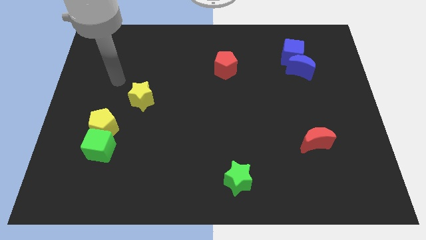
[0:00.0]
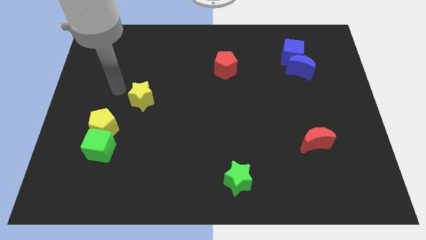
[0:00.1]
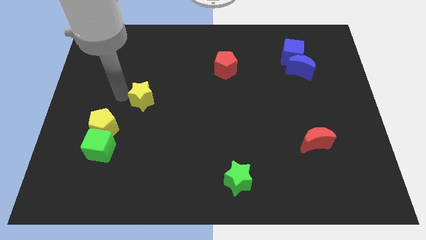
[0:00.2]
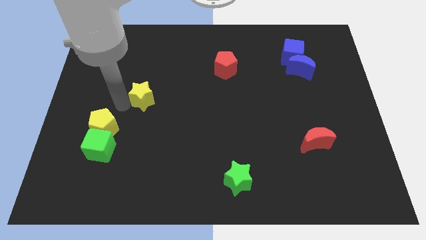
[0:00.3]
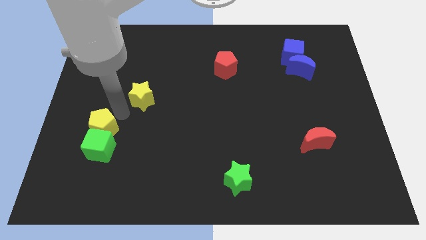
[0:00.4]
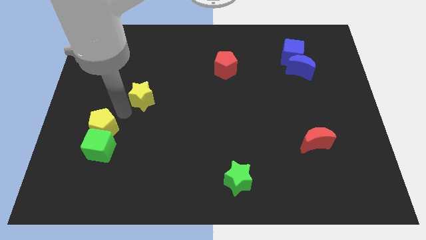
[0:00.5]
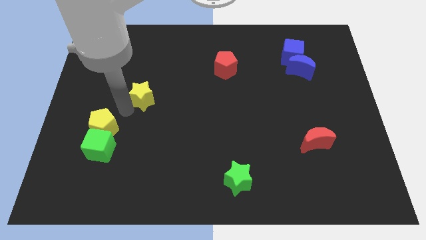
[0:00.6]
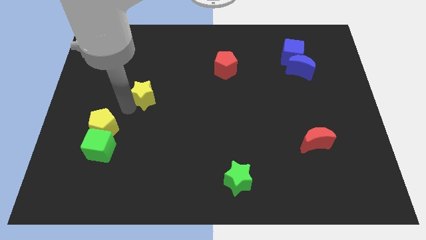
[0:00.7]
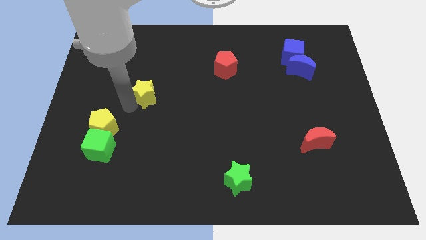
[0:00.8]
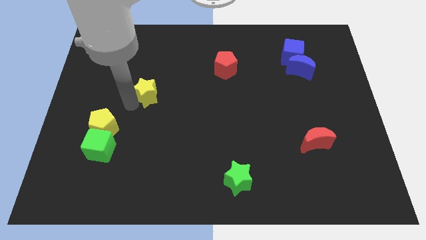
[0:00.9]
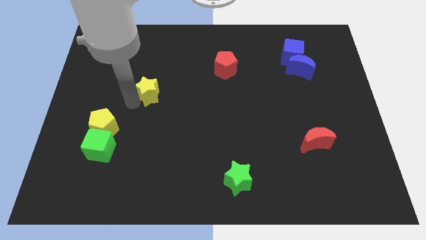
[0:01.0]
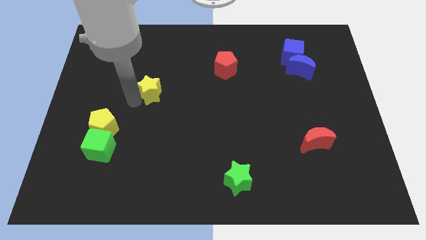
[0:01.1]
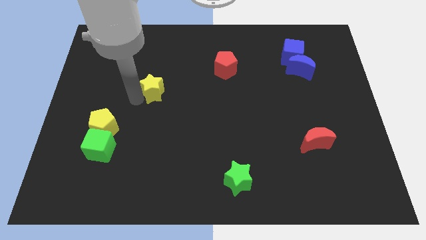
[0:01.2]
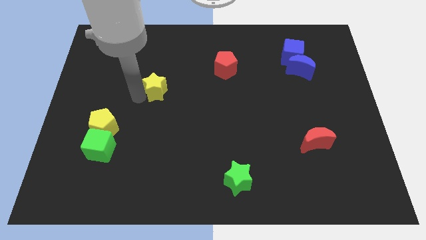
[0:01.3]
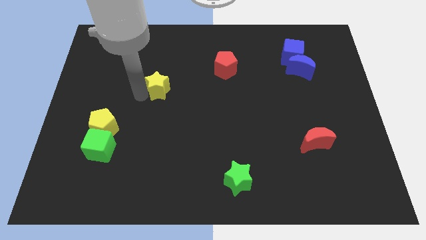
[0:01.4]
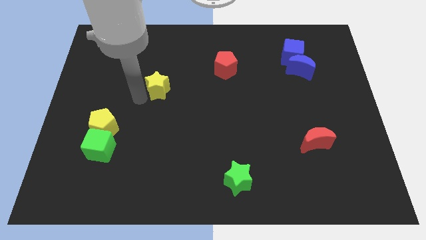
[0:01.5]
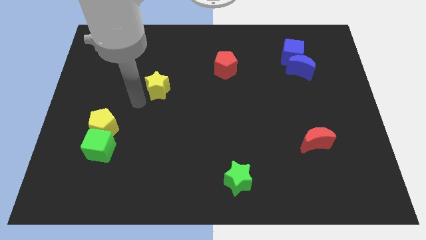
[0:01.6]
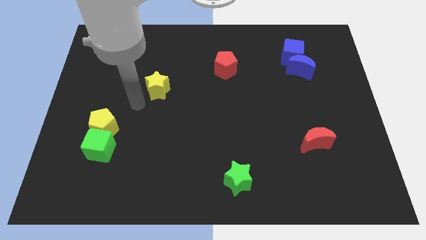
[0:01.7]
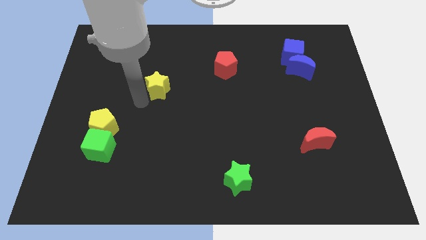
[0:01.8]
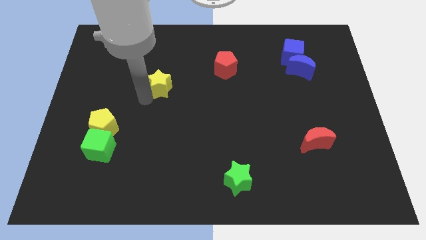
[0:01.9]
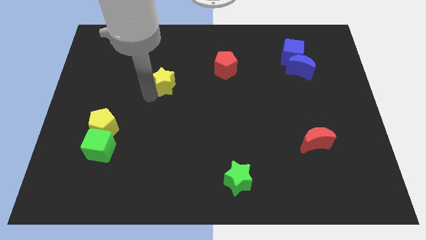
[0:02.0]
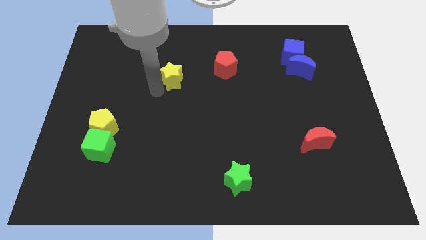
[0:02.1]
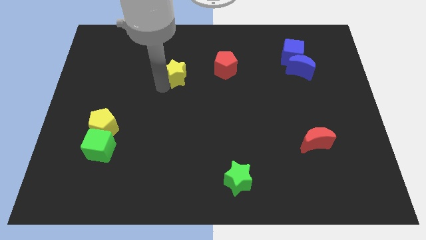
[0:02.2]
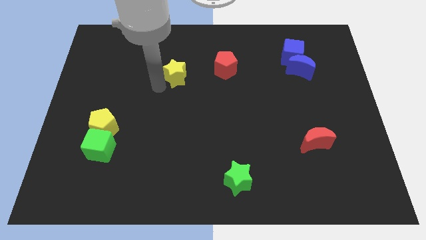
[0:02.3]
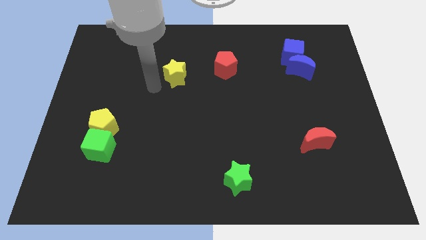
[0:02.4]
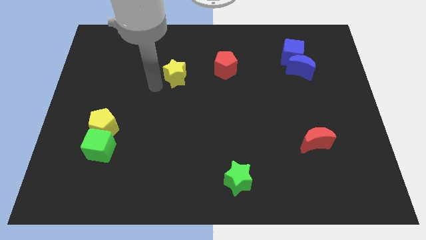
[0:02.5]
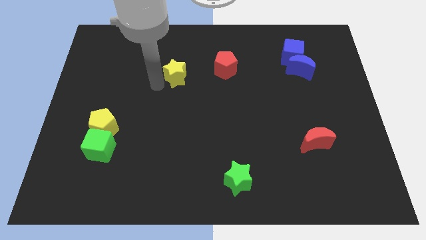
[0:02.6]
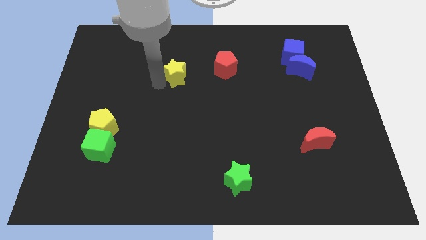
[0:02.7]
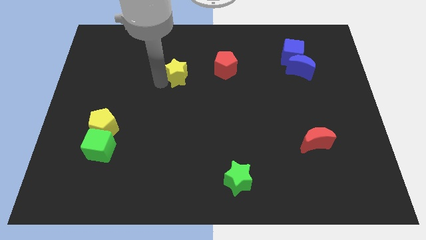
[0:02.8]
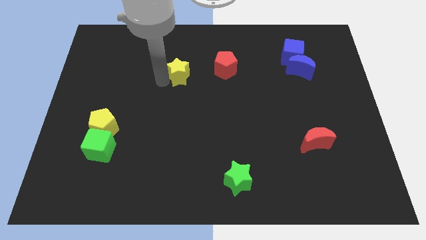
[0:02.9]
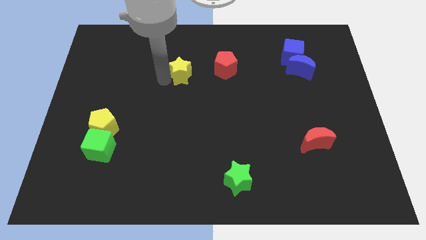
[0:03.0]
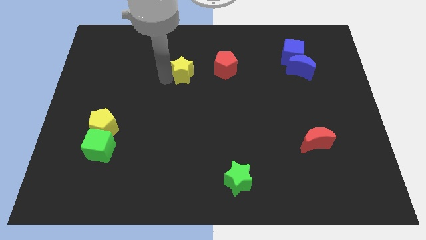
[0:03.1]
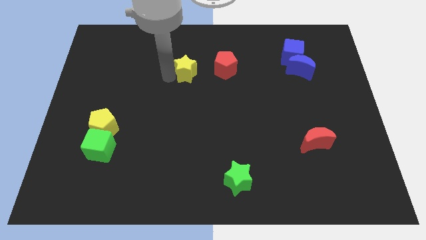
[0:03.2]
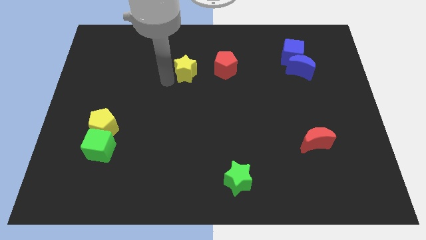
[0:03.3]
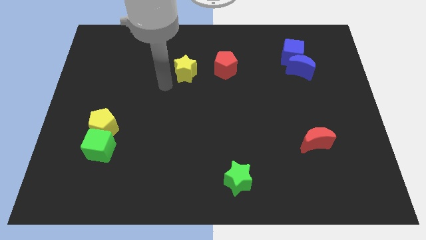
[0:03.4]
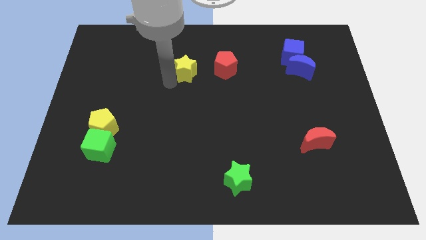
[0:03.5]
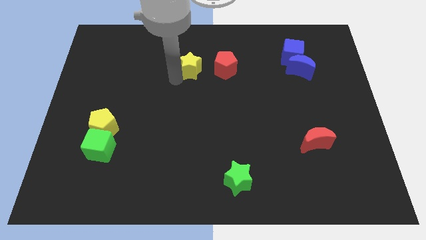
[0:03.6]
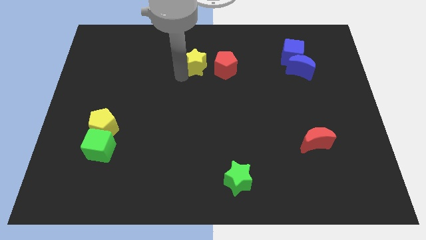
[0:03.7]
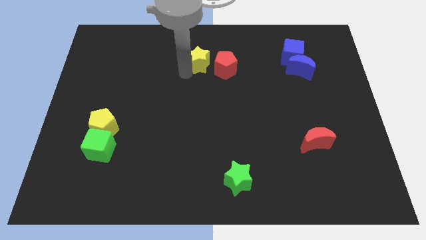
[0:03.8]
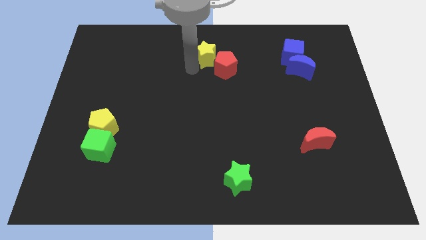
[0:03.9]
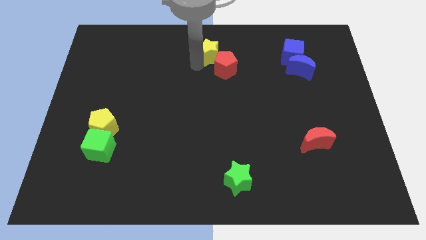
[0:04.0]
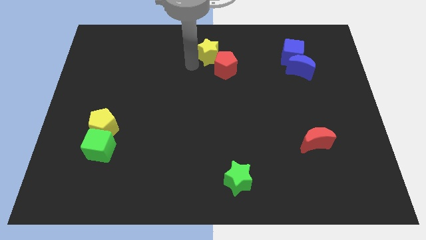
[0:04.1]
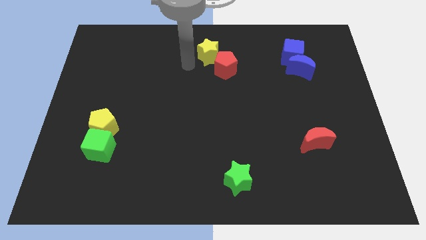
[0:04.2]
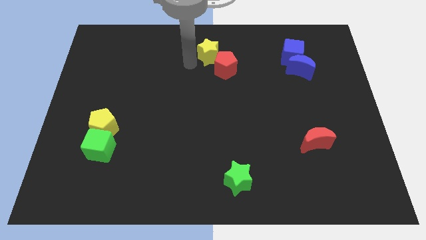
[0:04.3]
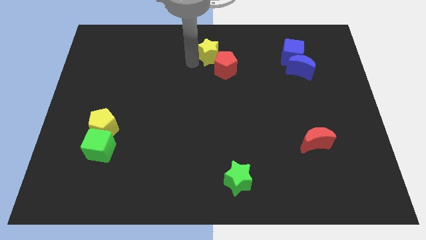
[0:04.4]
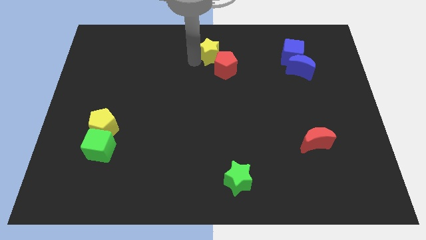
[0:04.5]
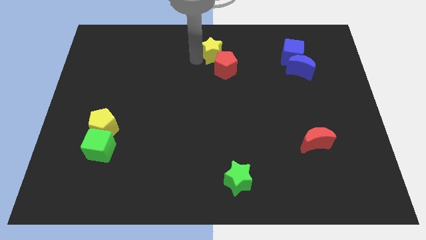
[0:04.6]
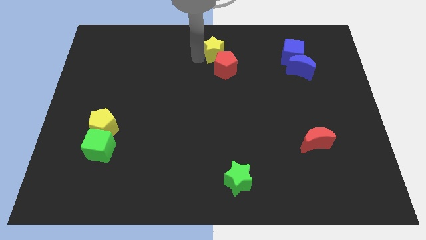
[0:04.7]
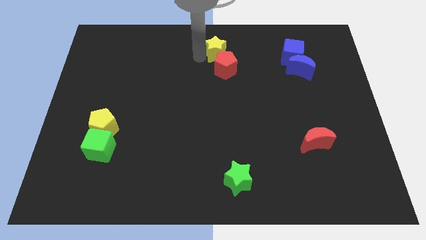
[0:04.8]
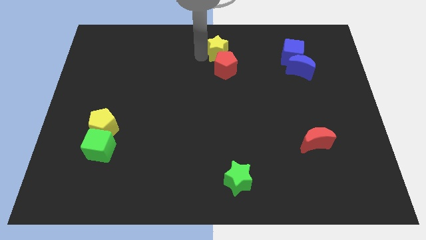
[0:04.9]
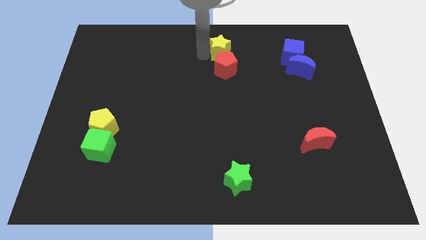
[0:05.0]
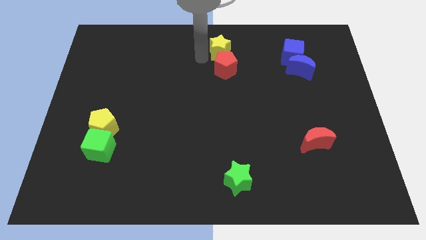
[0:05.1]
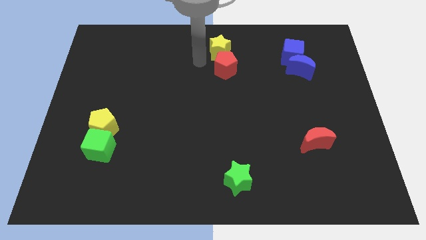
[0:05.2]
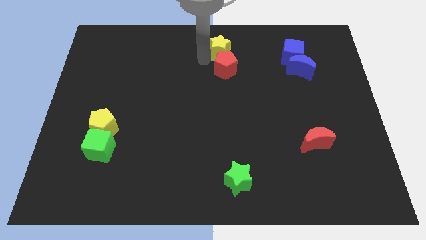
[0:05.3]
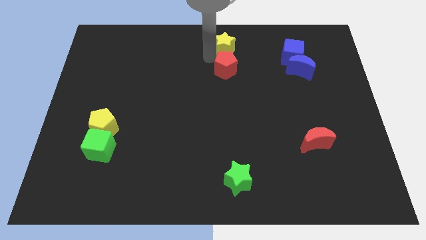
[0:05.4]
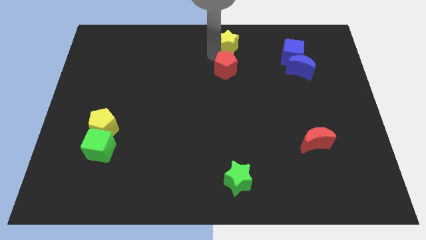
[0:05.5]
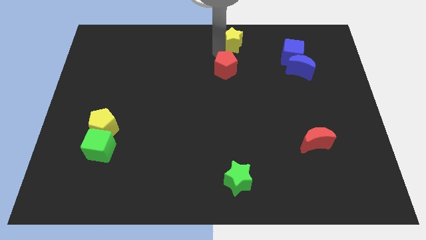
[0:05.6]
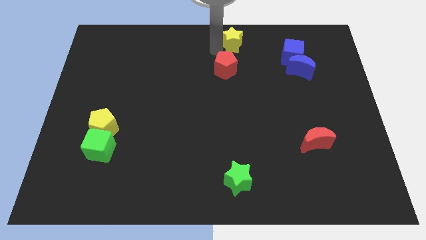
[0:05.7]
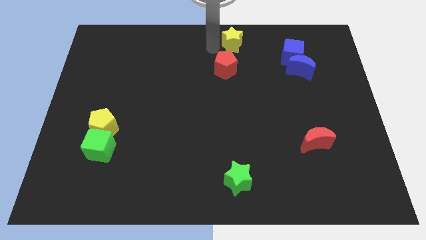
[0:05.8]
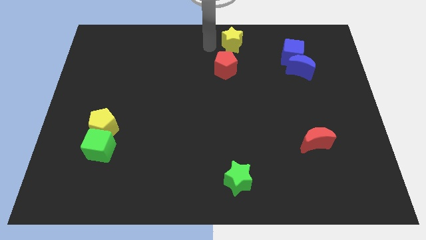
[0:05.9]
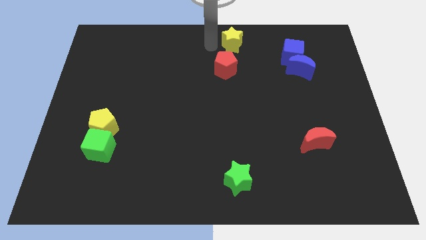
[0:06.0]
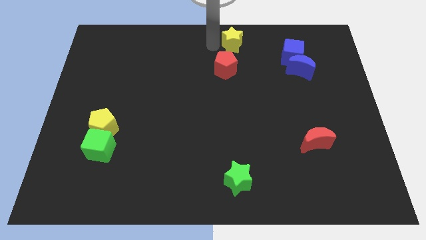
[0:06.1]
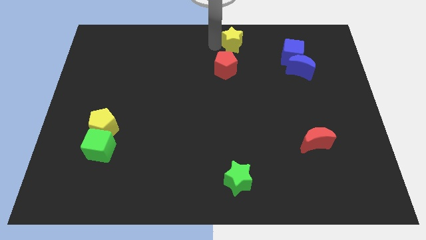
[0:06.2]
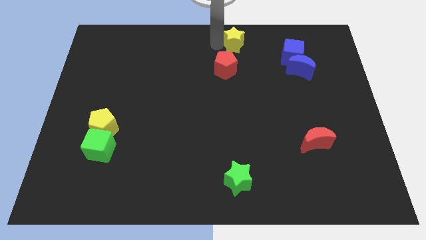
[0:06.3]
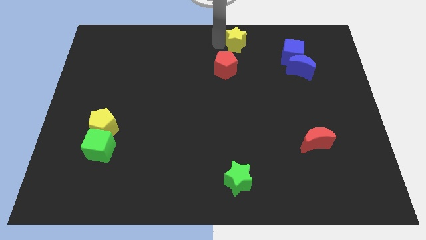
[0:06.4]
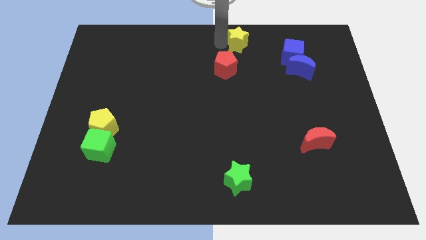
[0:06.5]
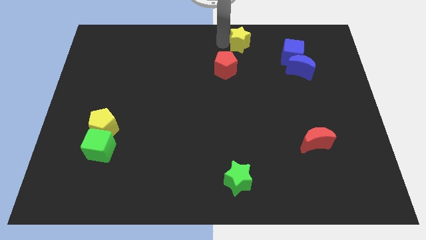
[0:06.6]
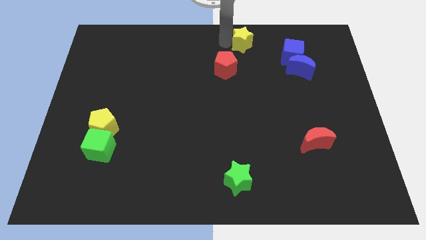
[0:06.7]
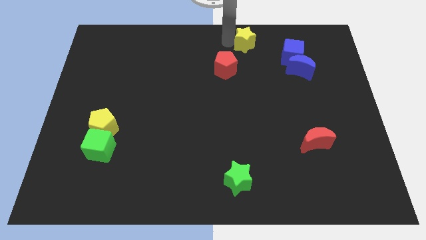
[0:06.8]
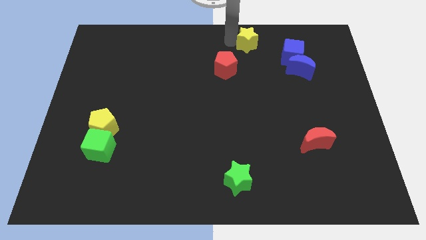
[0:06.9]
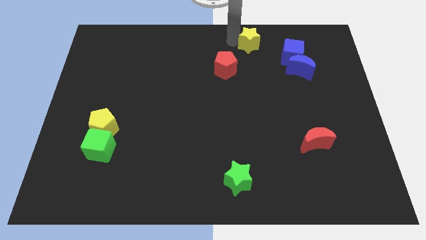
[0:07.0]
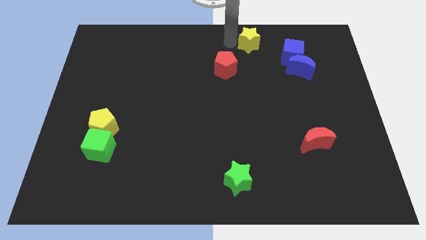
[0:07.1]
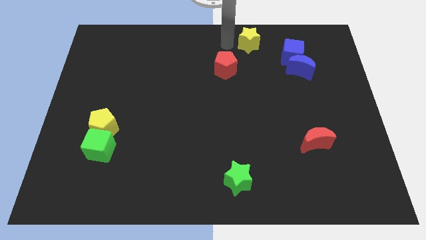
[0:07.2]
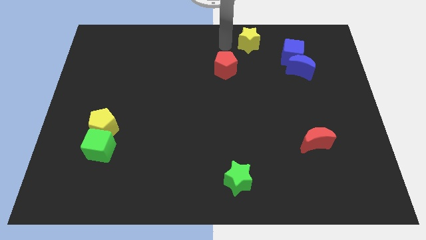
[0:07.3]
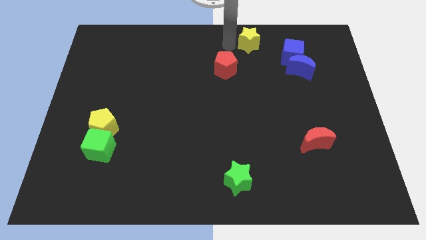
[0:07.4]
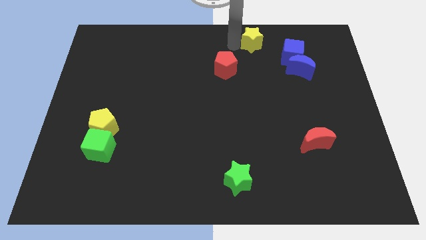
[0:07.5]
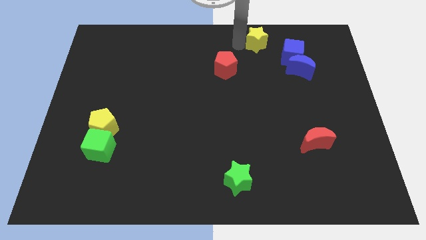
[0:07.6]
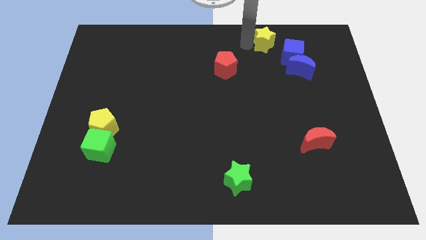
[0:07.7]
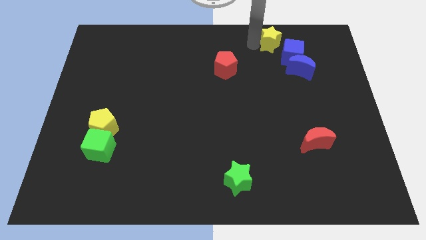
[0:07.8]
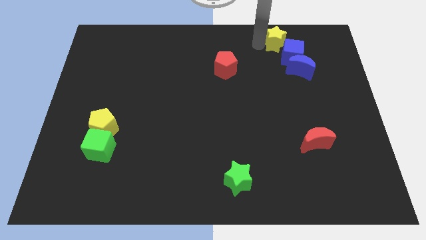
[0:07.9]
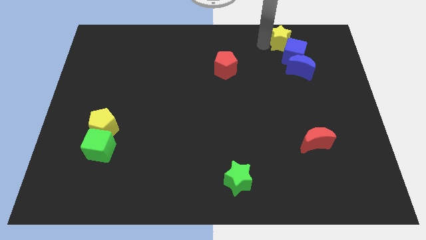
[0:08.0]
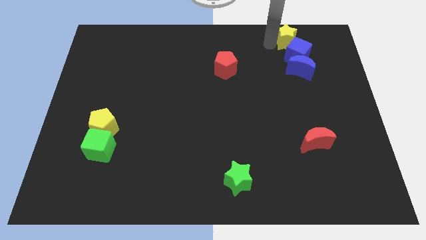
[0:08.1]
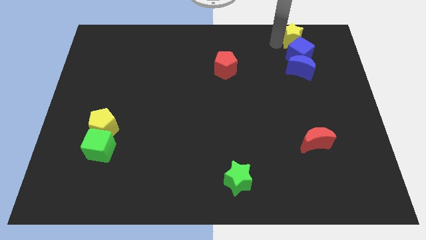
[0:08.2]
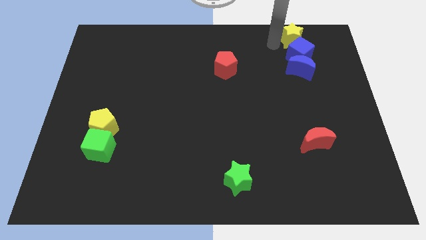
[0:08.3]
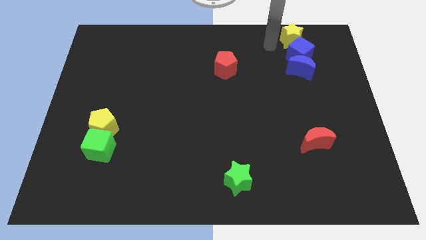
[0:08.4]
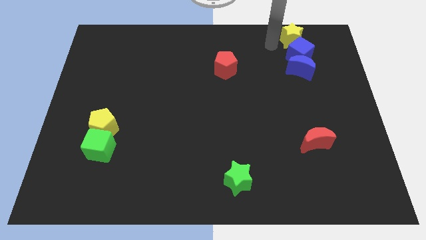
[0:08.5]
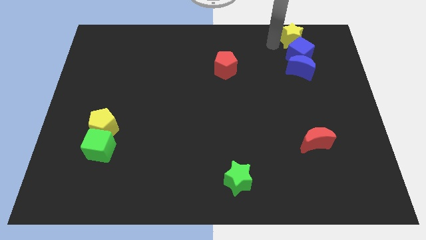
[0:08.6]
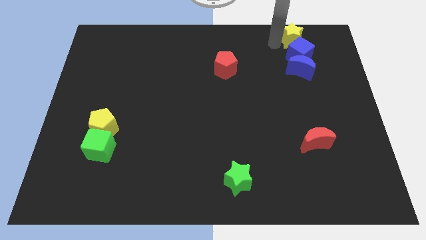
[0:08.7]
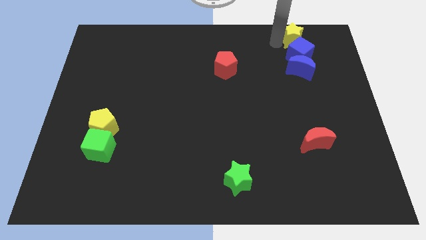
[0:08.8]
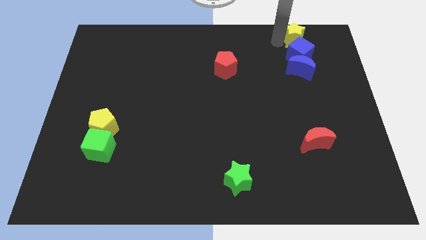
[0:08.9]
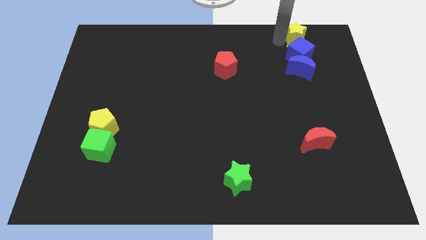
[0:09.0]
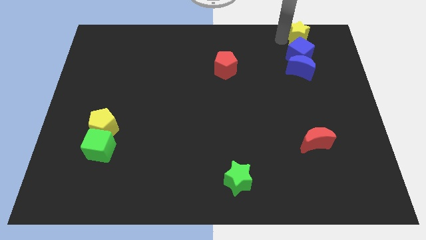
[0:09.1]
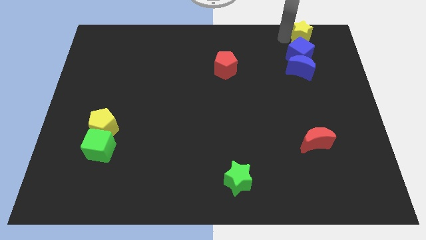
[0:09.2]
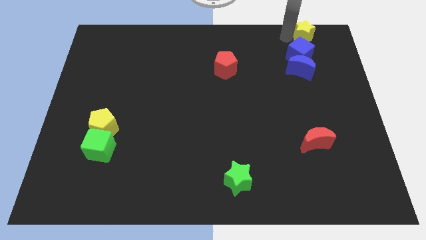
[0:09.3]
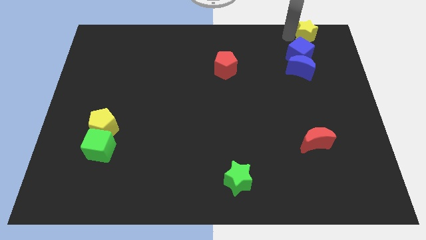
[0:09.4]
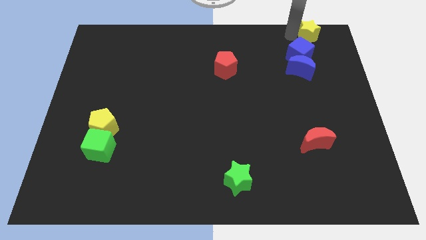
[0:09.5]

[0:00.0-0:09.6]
move the yellow star to the upper right corner
